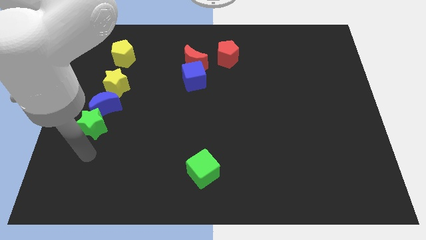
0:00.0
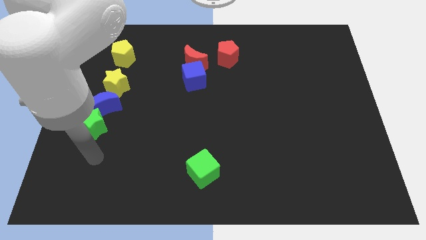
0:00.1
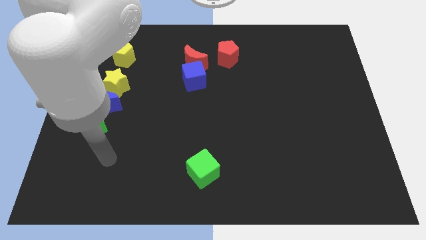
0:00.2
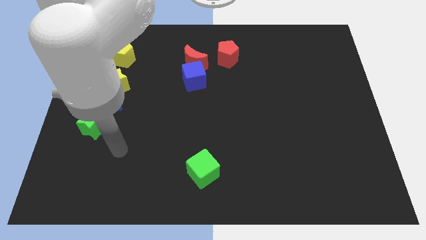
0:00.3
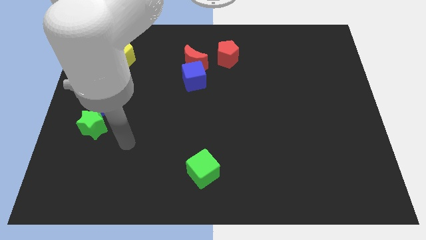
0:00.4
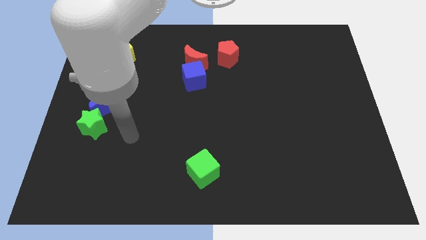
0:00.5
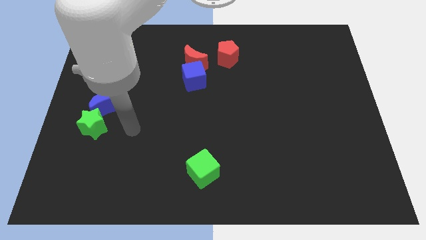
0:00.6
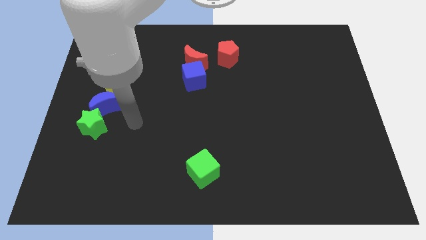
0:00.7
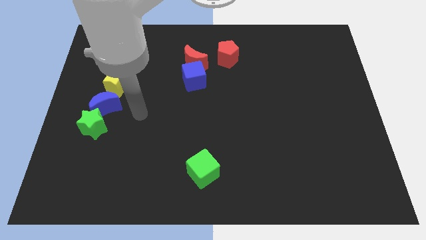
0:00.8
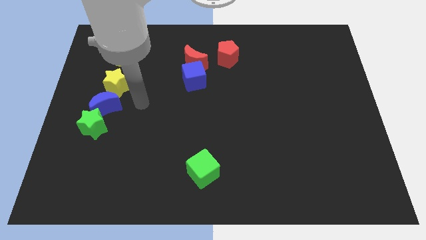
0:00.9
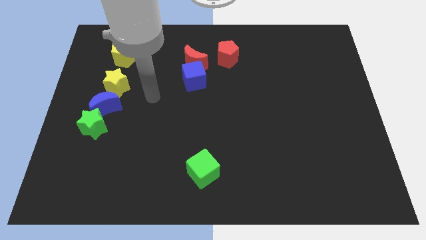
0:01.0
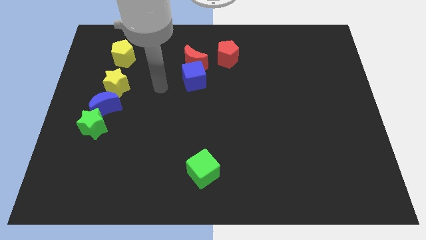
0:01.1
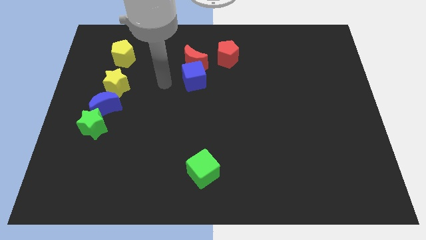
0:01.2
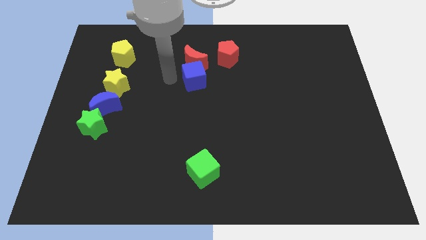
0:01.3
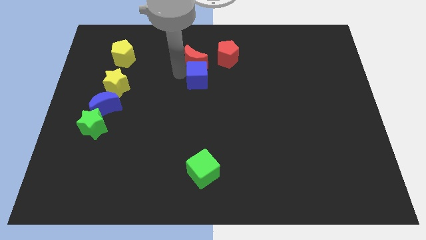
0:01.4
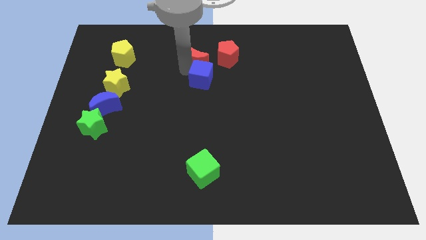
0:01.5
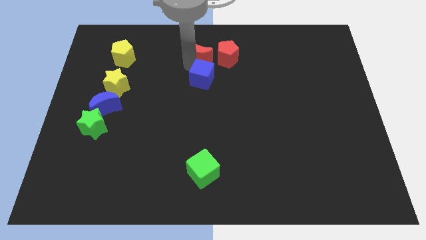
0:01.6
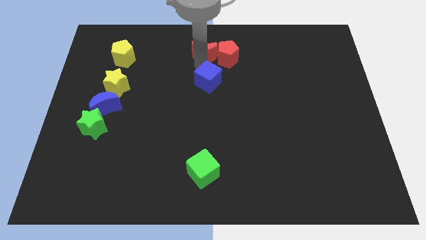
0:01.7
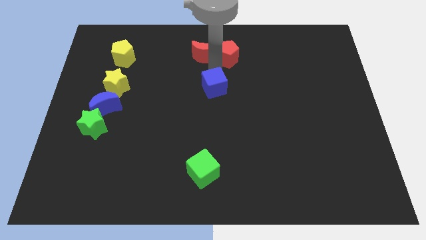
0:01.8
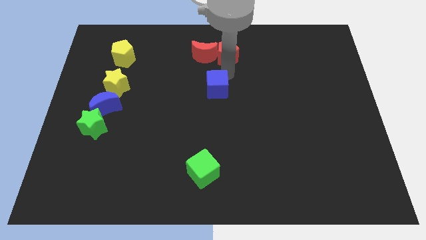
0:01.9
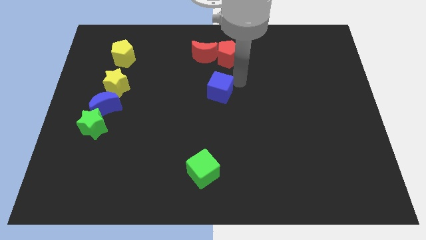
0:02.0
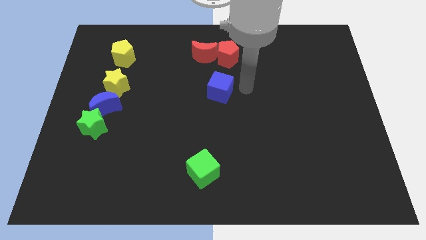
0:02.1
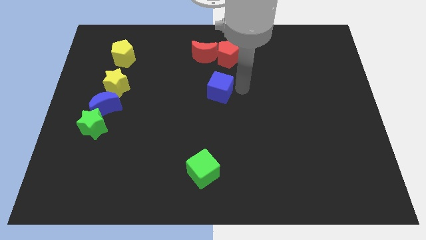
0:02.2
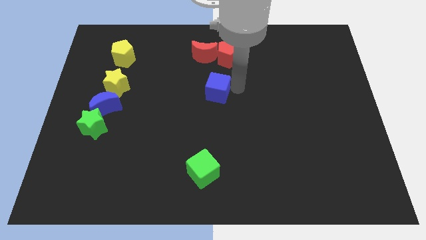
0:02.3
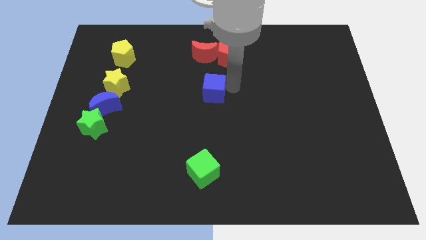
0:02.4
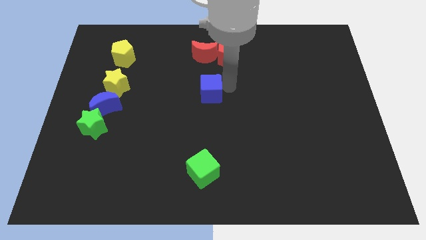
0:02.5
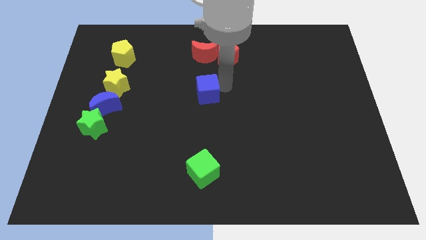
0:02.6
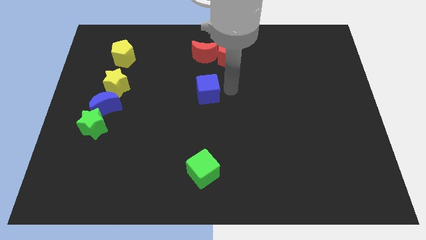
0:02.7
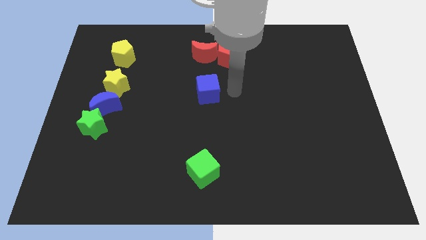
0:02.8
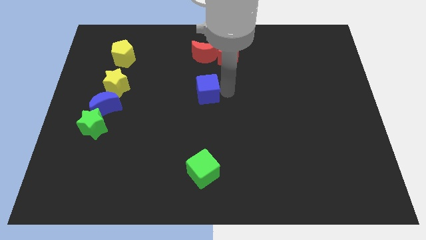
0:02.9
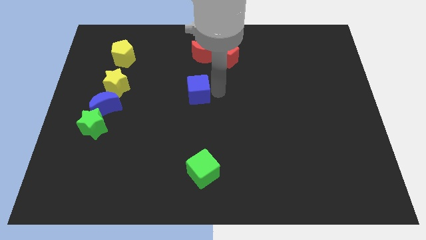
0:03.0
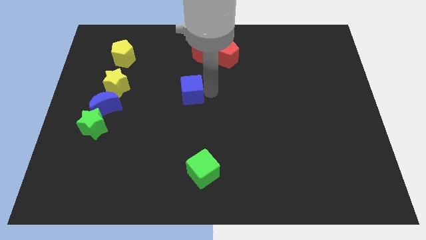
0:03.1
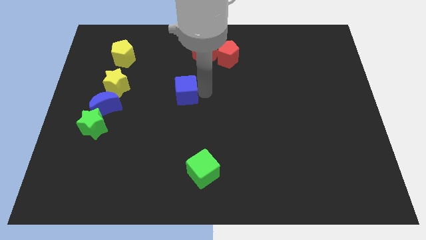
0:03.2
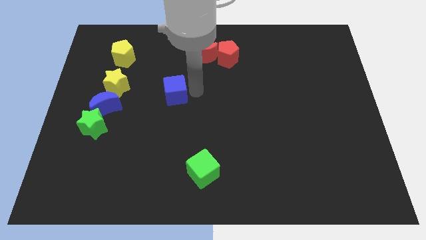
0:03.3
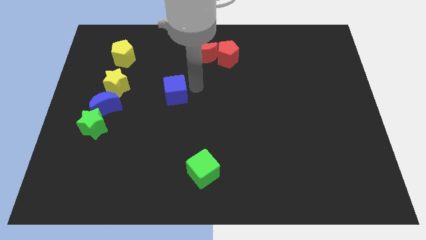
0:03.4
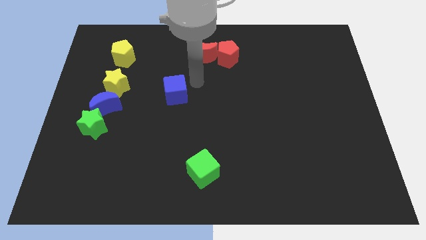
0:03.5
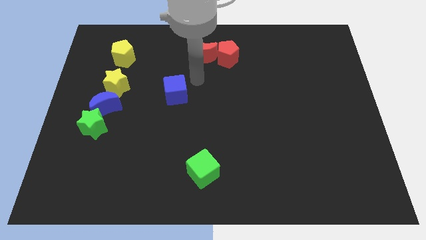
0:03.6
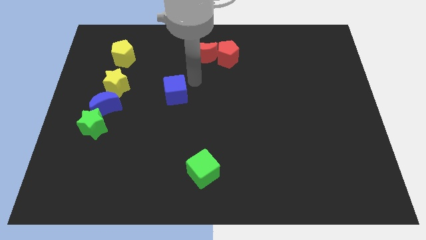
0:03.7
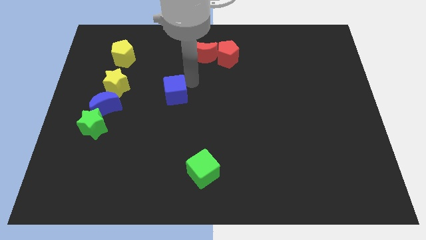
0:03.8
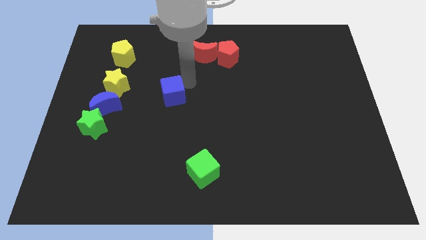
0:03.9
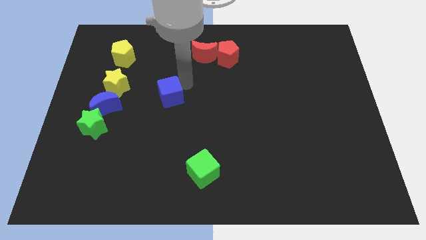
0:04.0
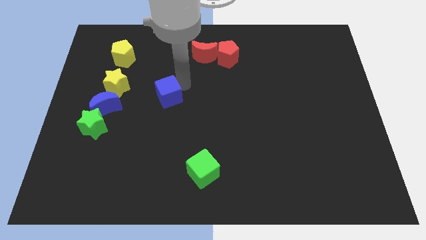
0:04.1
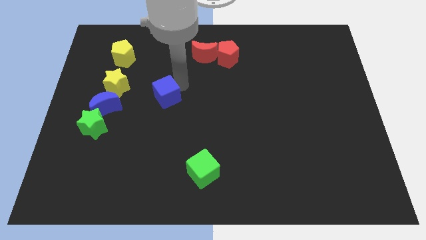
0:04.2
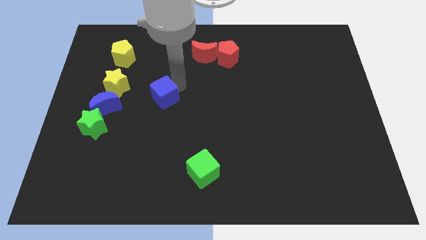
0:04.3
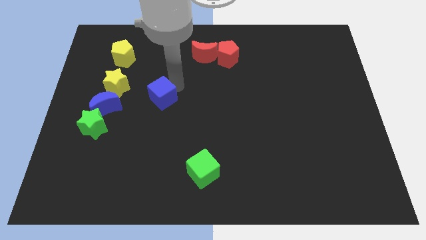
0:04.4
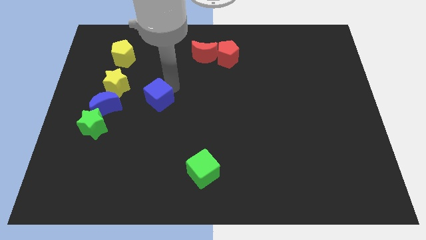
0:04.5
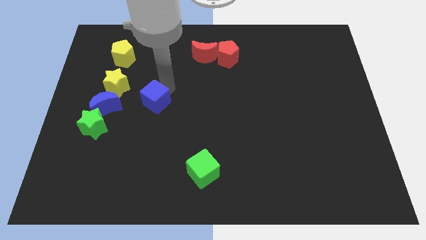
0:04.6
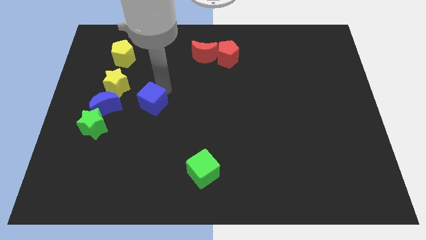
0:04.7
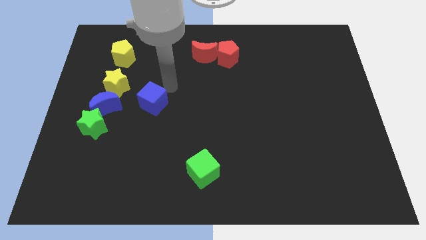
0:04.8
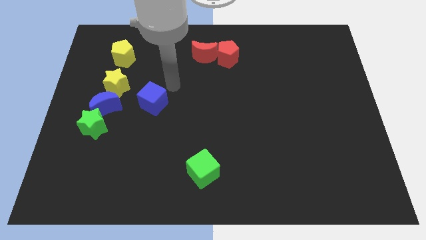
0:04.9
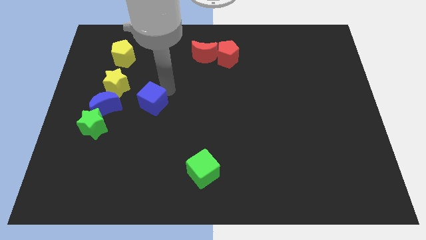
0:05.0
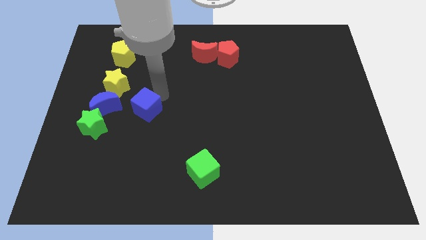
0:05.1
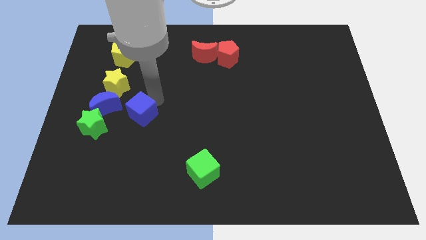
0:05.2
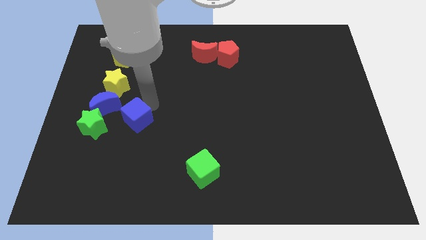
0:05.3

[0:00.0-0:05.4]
slide the blue cube to the bottom right of the blue moon

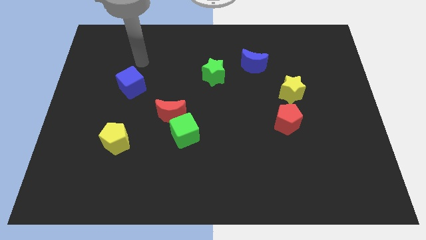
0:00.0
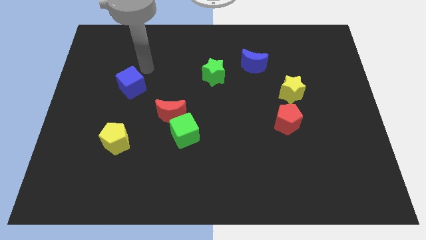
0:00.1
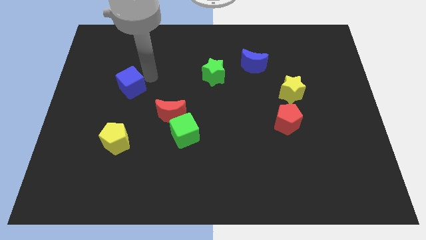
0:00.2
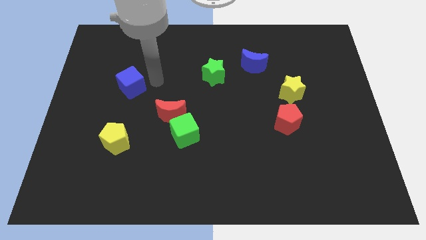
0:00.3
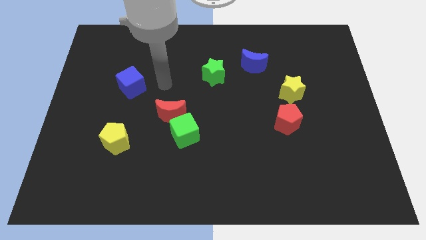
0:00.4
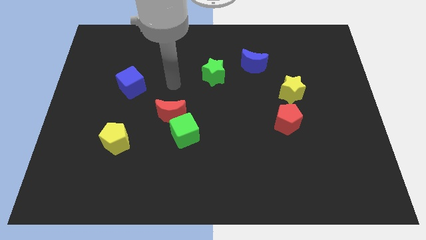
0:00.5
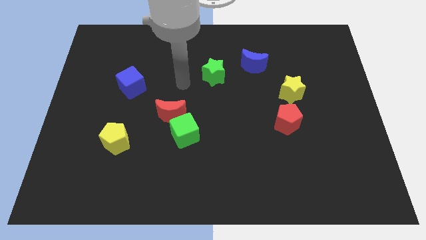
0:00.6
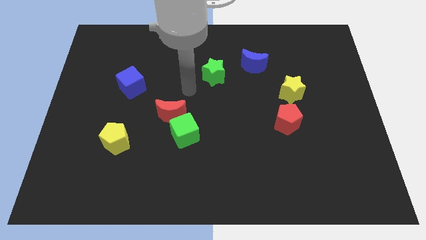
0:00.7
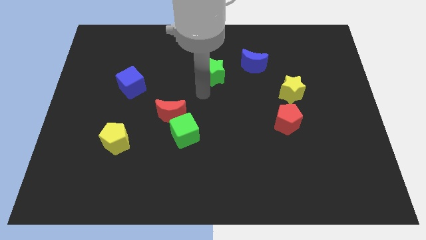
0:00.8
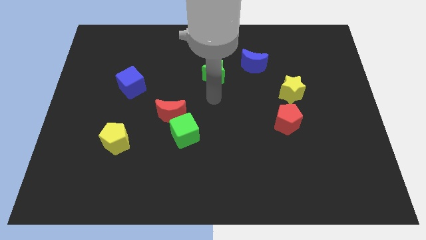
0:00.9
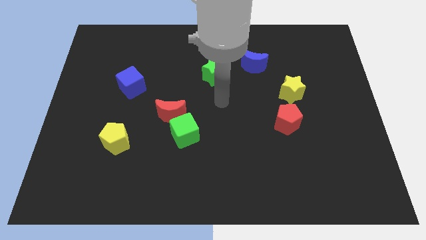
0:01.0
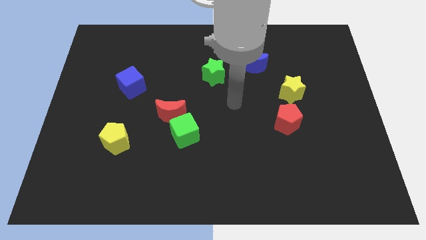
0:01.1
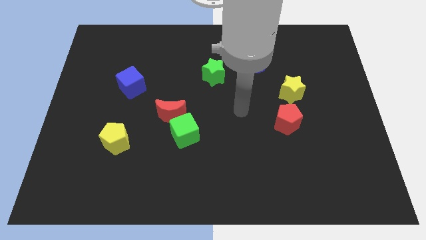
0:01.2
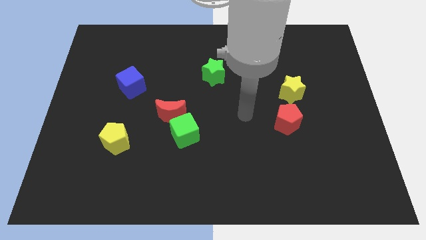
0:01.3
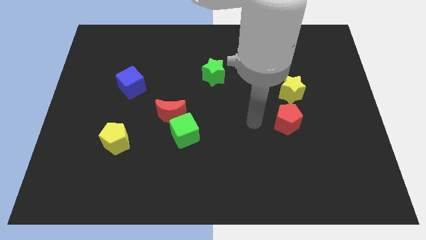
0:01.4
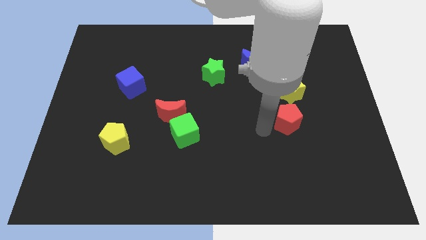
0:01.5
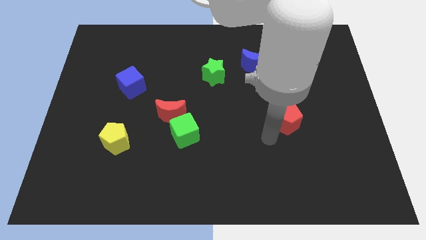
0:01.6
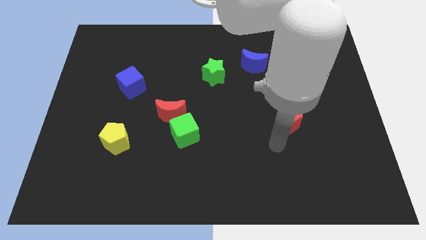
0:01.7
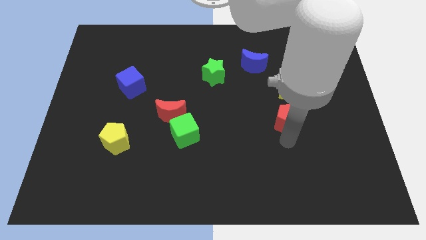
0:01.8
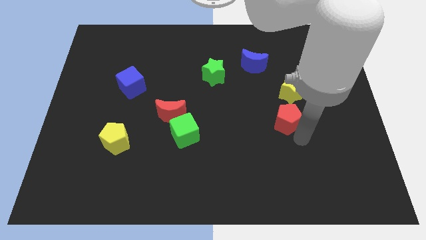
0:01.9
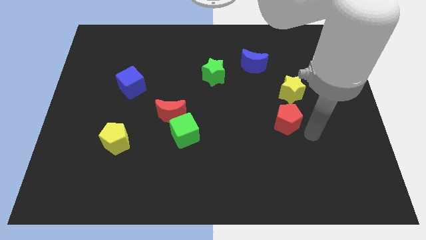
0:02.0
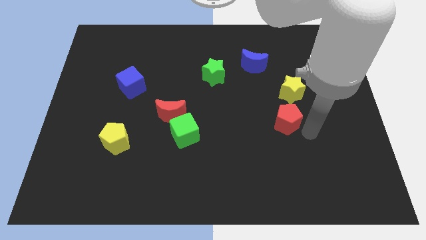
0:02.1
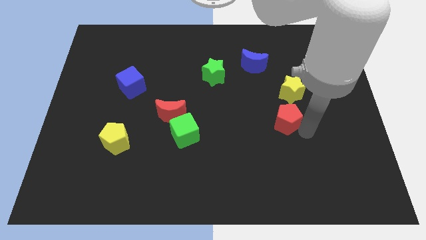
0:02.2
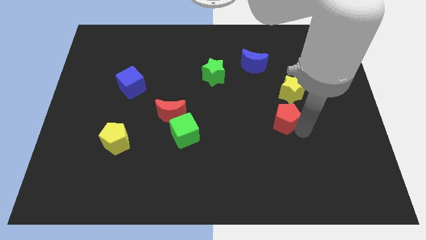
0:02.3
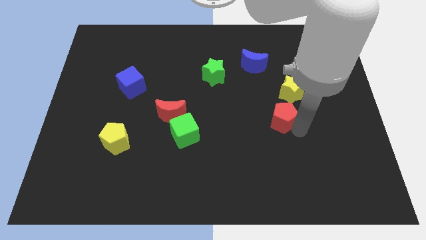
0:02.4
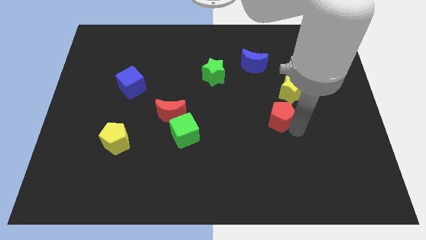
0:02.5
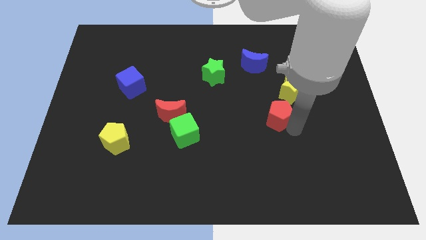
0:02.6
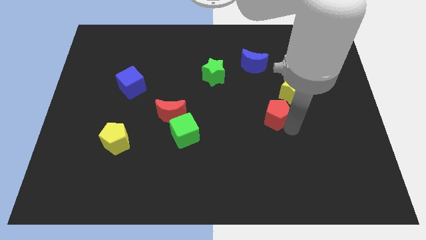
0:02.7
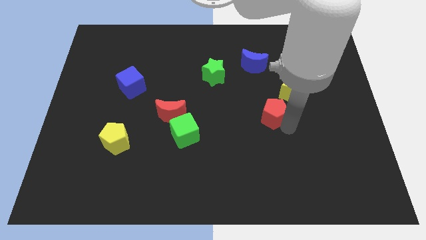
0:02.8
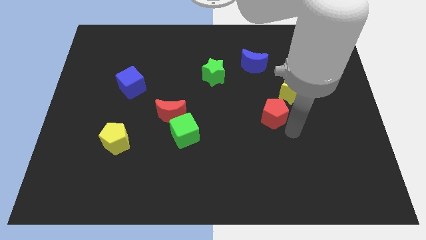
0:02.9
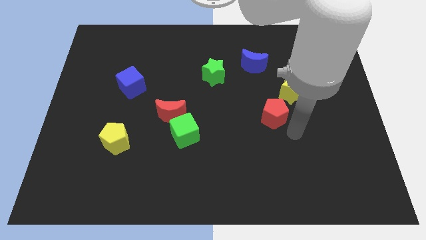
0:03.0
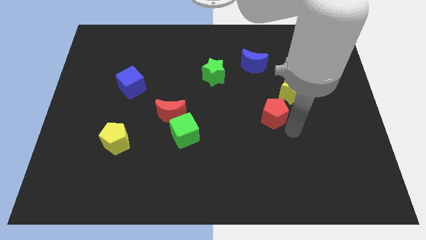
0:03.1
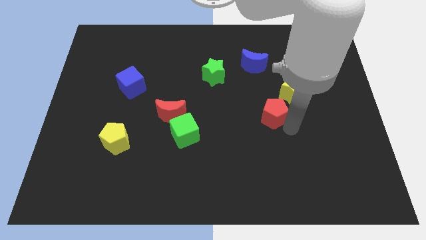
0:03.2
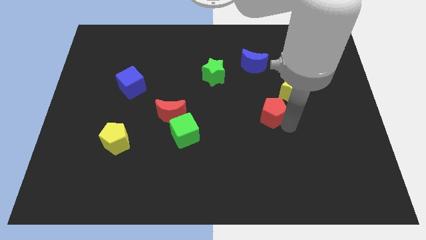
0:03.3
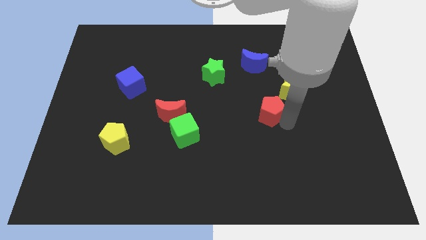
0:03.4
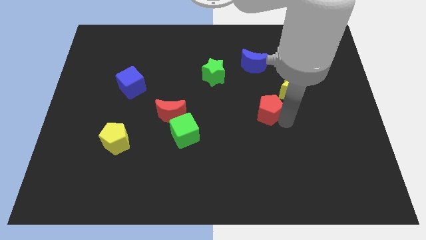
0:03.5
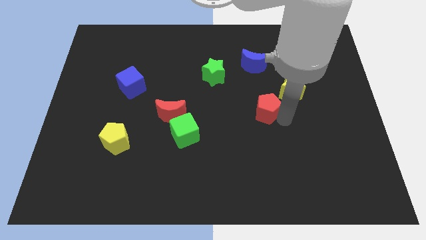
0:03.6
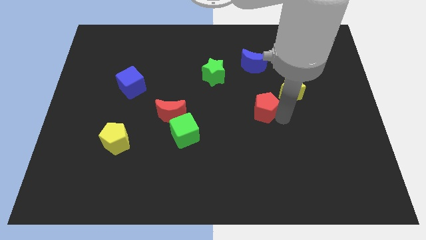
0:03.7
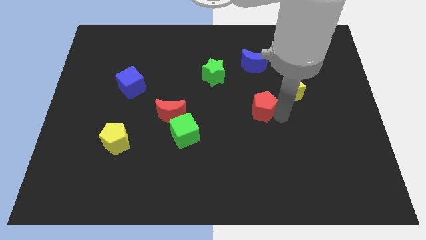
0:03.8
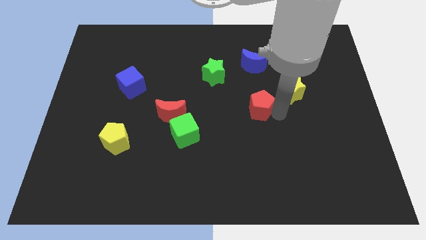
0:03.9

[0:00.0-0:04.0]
push the red pentagon to the left of the yellow star
